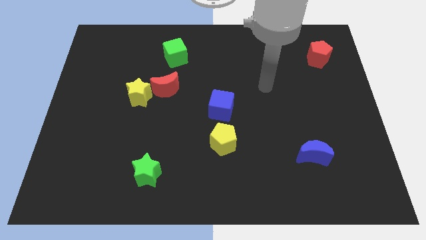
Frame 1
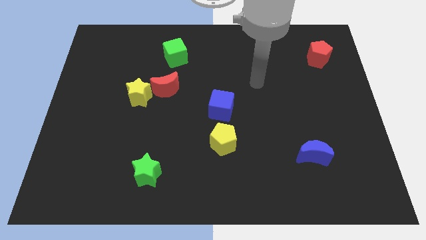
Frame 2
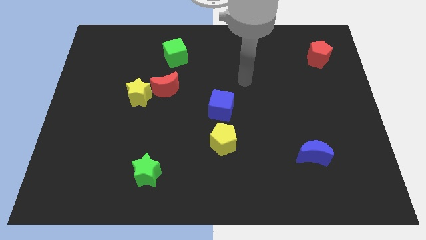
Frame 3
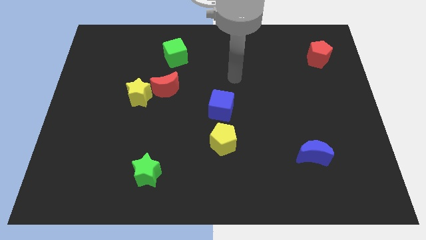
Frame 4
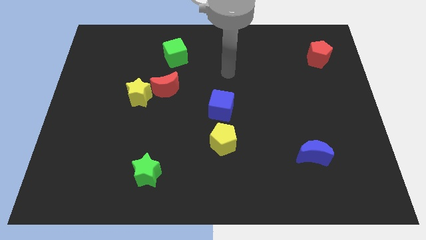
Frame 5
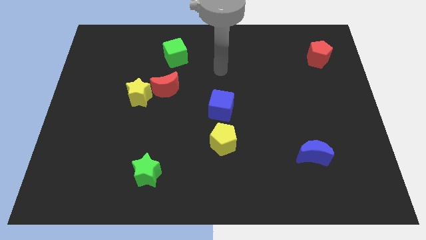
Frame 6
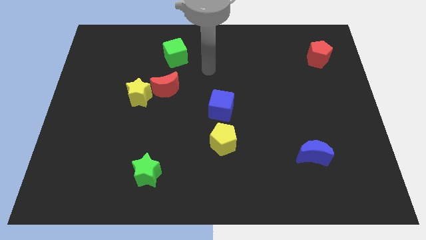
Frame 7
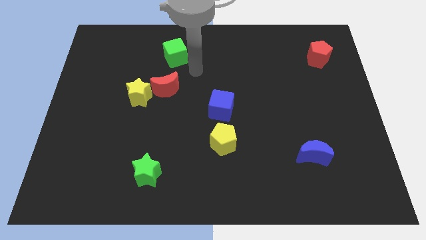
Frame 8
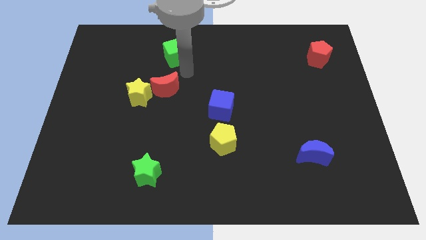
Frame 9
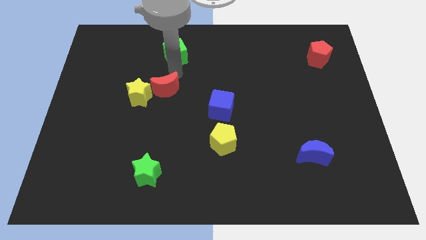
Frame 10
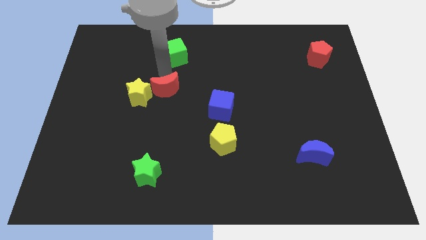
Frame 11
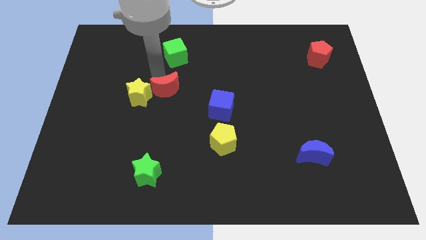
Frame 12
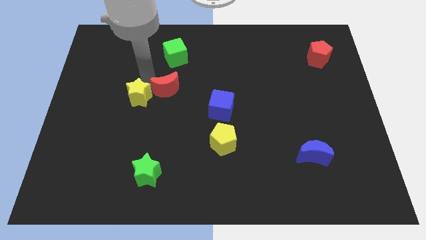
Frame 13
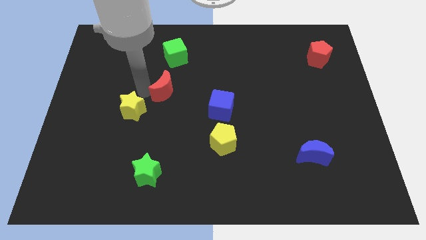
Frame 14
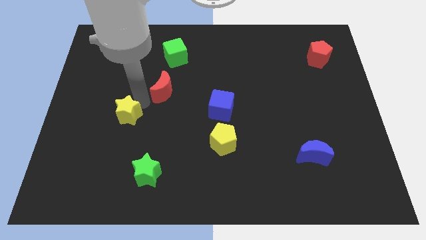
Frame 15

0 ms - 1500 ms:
move the red moon away from the yellow star

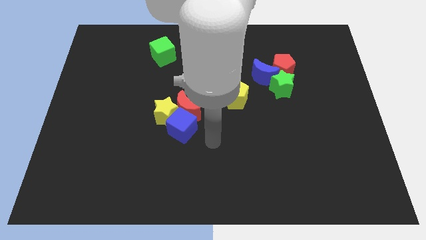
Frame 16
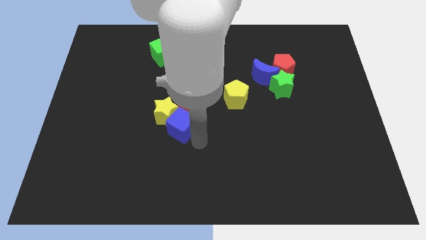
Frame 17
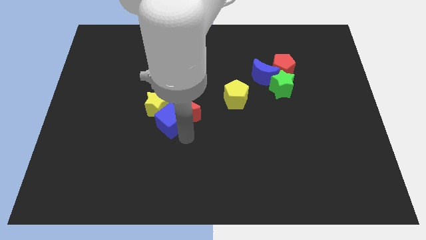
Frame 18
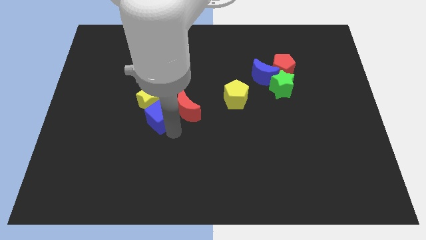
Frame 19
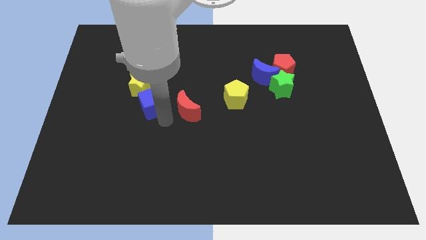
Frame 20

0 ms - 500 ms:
move the red moon away from the blue cube and yellow star

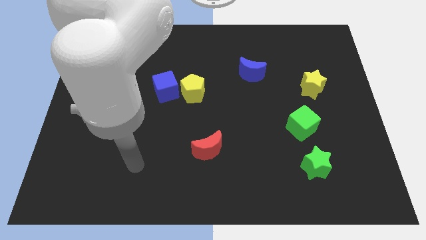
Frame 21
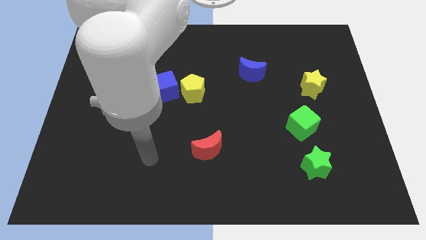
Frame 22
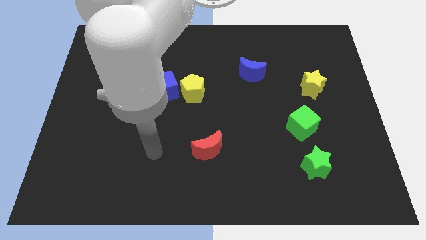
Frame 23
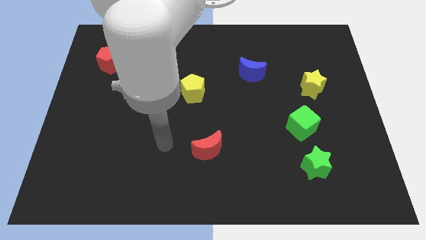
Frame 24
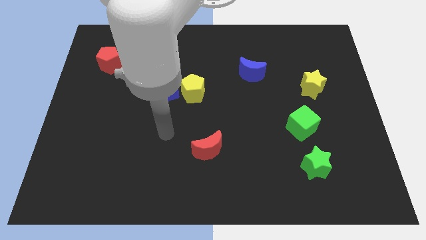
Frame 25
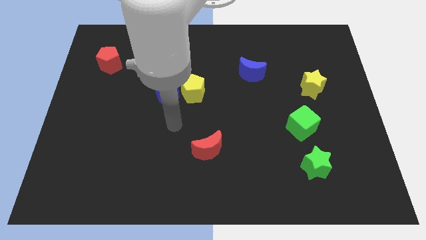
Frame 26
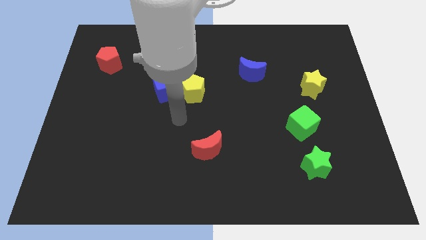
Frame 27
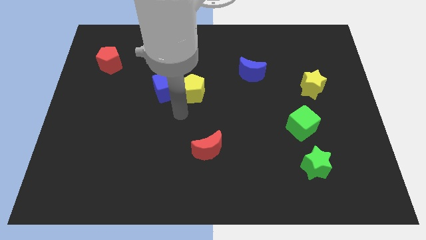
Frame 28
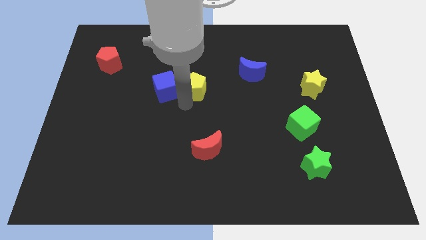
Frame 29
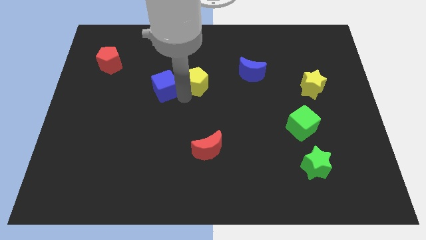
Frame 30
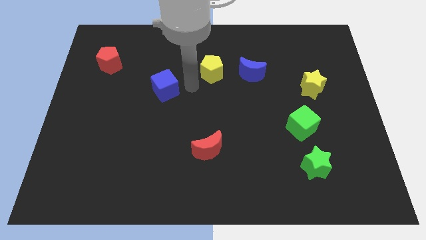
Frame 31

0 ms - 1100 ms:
separate the blue cube from the yellow pentagon

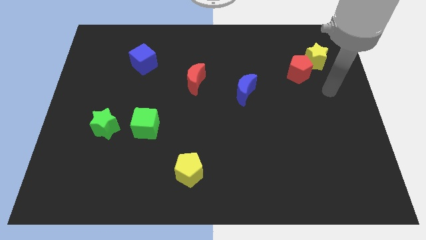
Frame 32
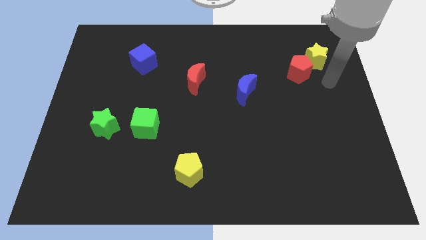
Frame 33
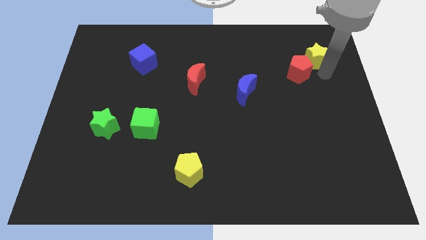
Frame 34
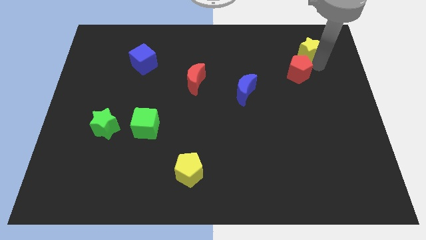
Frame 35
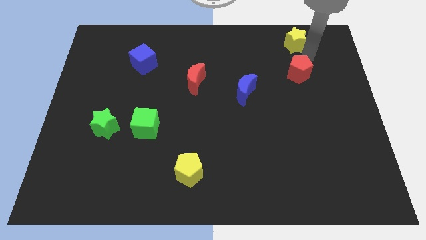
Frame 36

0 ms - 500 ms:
move the red pentagon away from the yellow star

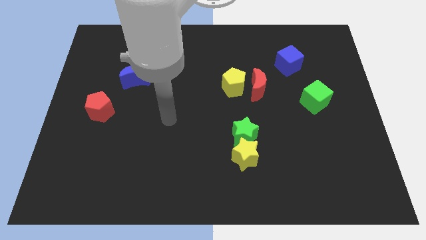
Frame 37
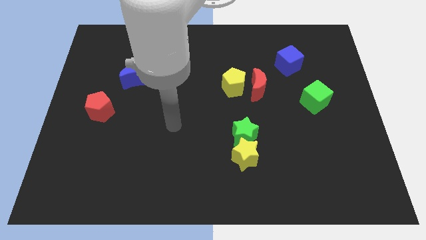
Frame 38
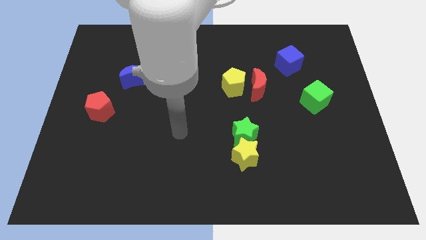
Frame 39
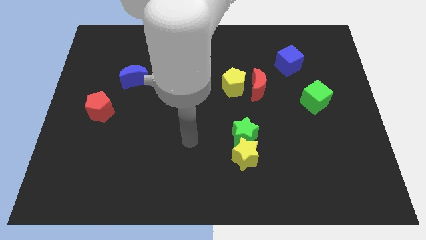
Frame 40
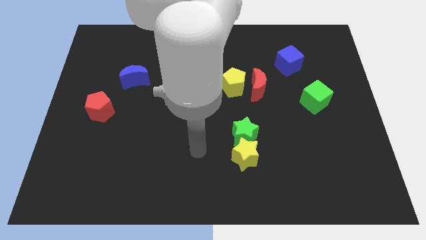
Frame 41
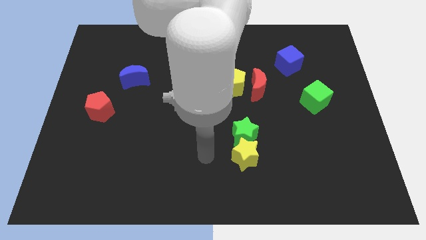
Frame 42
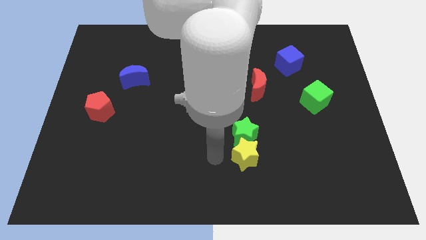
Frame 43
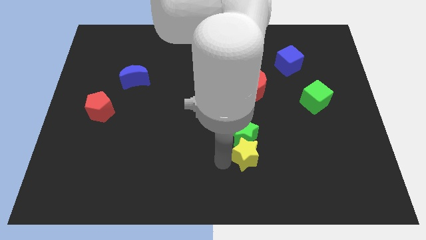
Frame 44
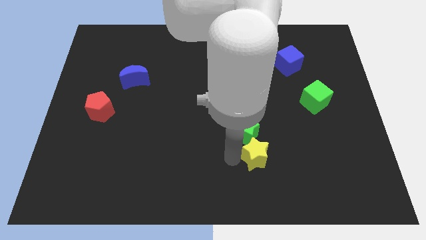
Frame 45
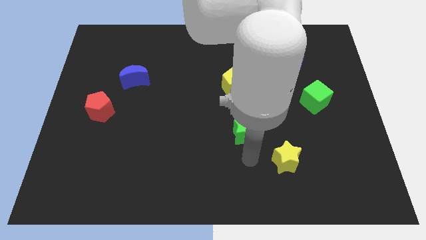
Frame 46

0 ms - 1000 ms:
move the green star away from the yellow star

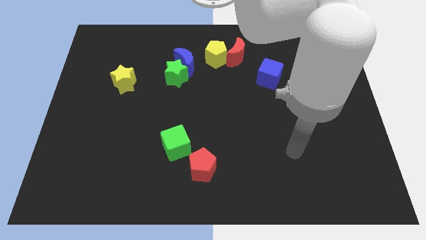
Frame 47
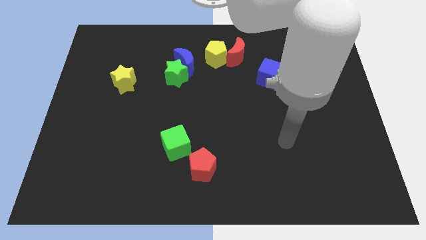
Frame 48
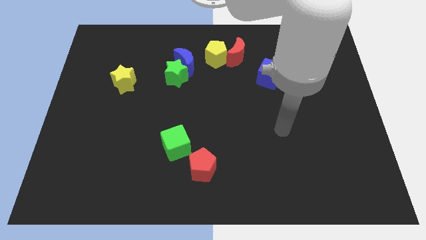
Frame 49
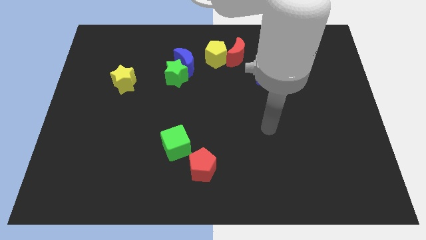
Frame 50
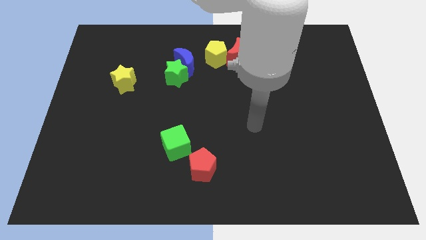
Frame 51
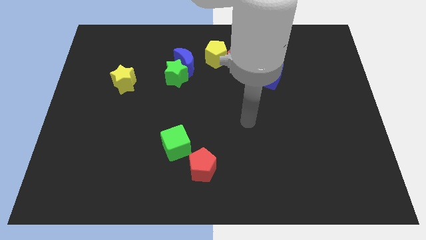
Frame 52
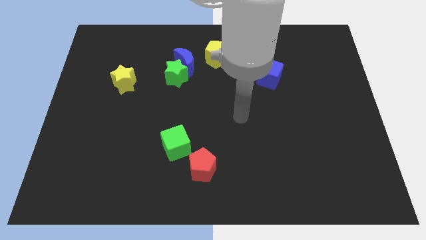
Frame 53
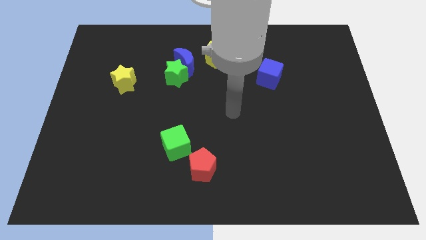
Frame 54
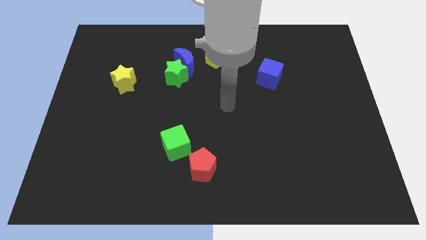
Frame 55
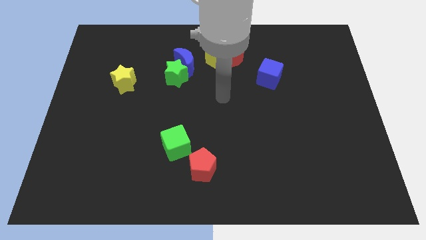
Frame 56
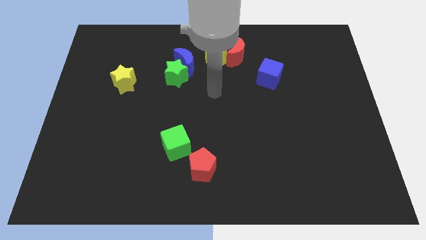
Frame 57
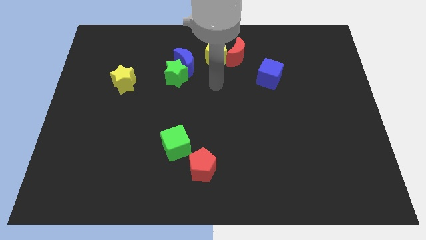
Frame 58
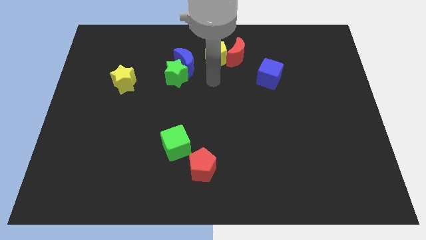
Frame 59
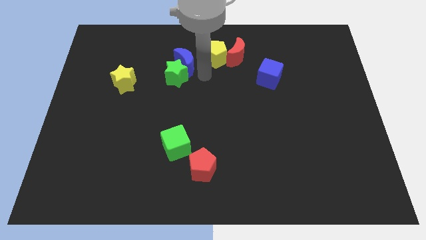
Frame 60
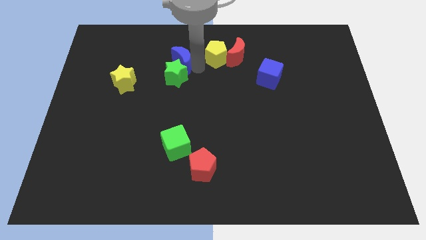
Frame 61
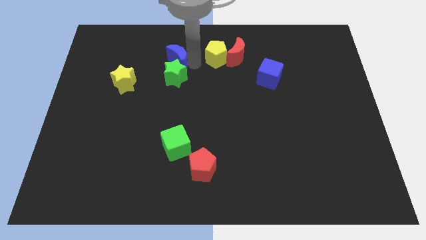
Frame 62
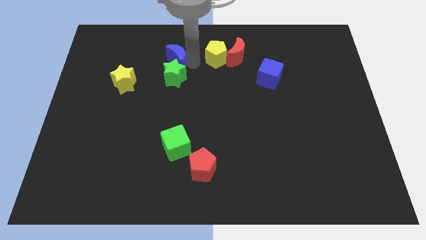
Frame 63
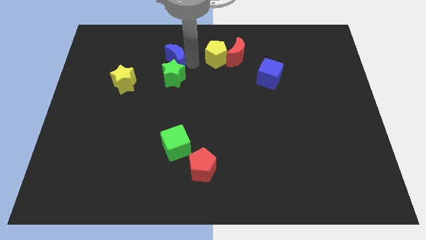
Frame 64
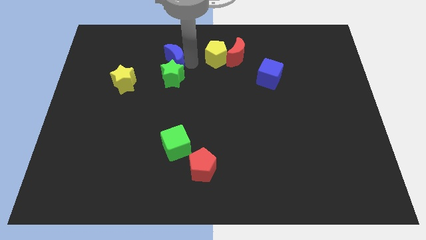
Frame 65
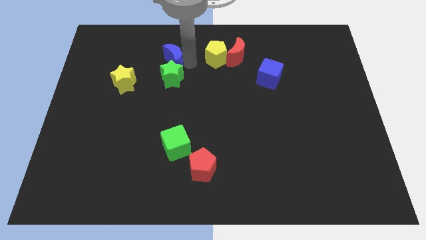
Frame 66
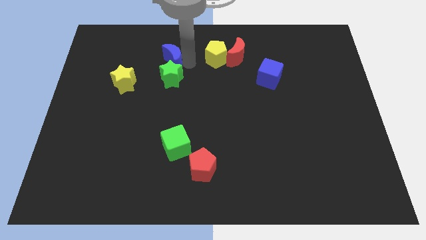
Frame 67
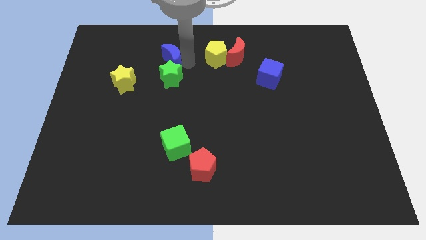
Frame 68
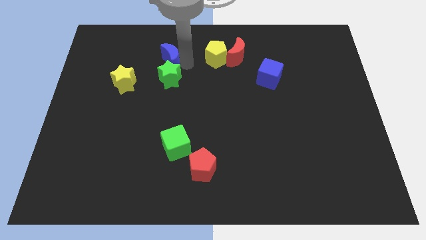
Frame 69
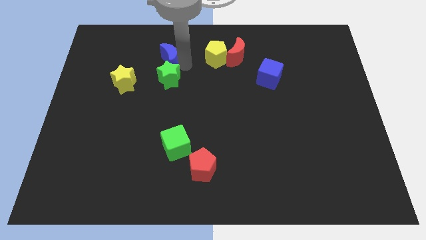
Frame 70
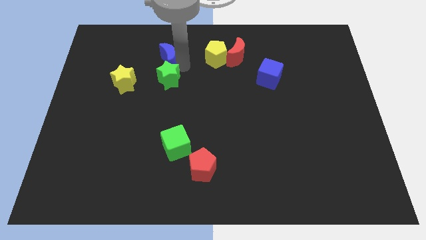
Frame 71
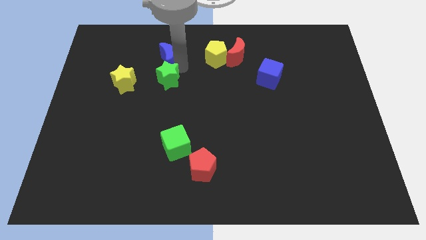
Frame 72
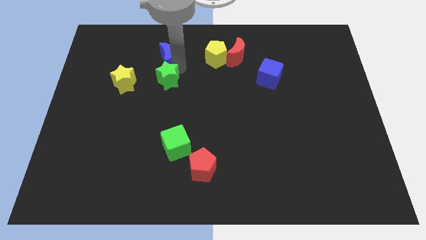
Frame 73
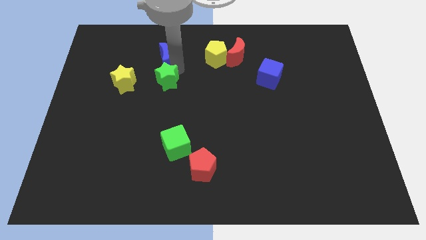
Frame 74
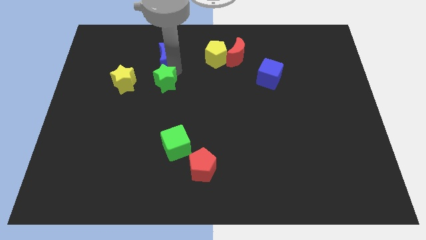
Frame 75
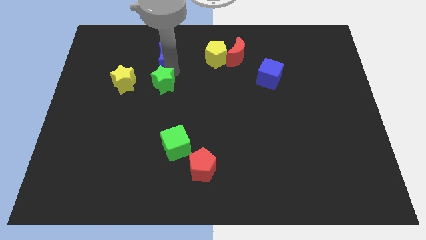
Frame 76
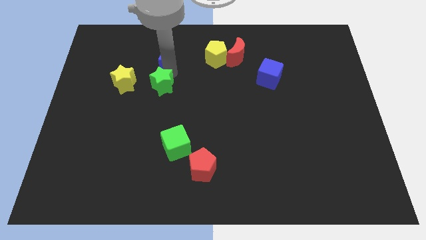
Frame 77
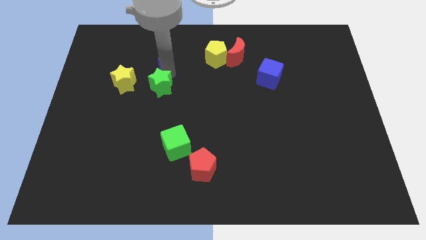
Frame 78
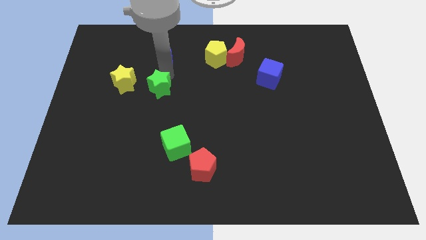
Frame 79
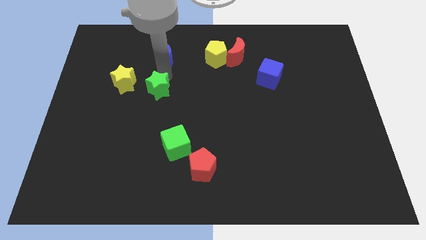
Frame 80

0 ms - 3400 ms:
separate the green star from the blue moon

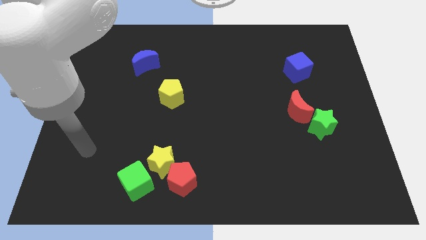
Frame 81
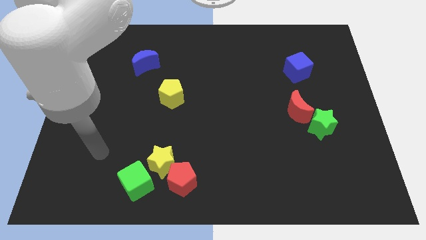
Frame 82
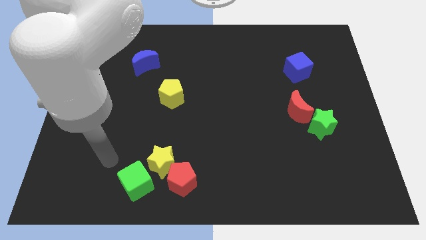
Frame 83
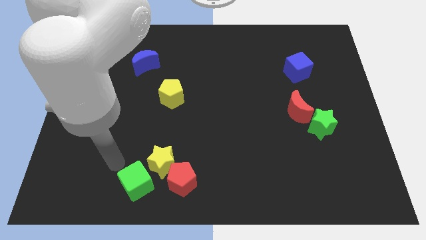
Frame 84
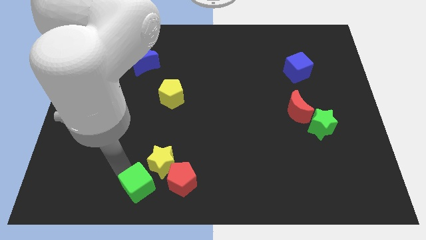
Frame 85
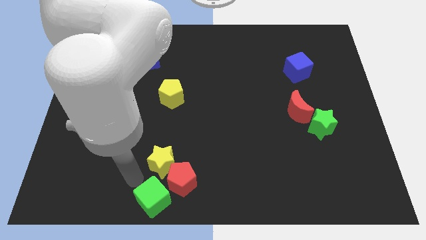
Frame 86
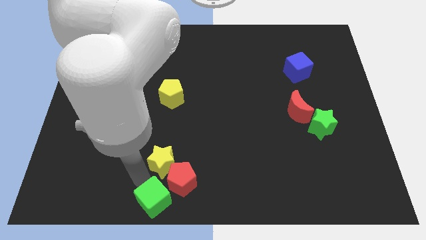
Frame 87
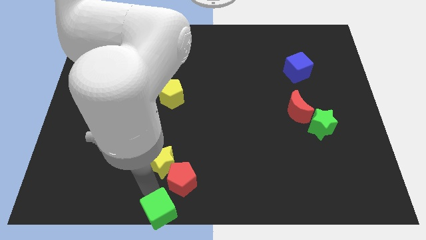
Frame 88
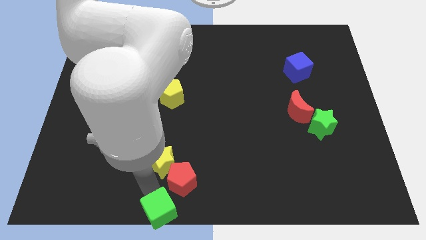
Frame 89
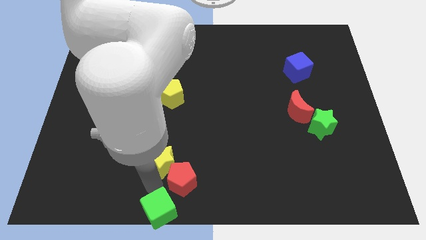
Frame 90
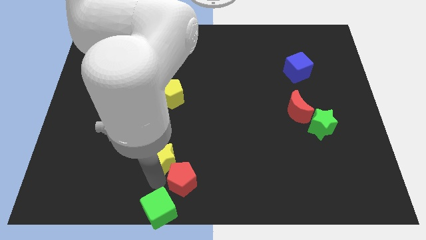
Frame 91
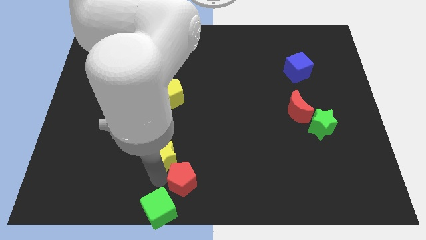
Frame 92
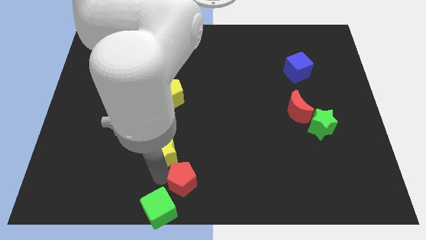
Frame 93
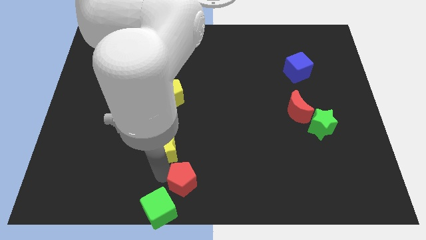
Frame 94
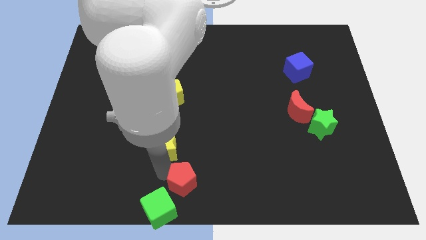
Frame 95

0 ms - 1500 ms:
pull the yellow star apart from the red pentagon and green cube
